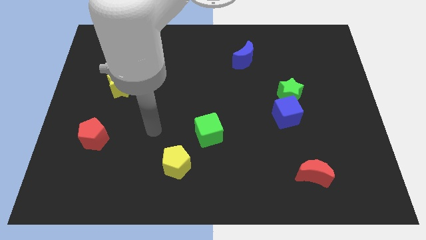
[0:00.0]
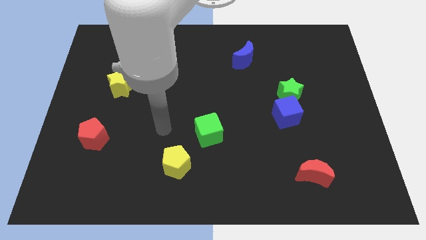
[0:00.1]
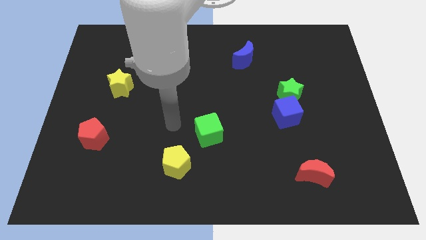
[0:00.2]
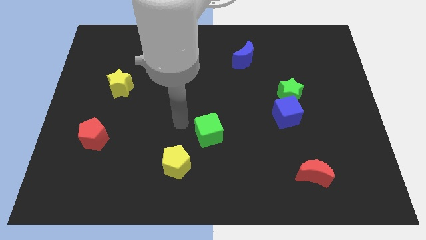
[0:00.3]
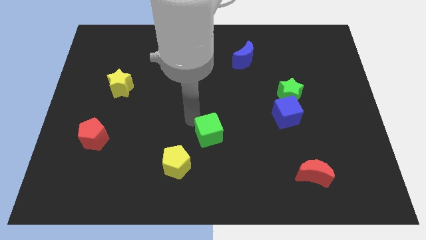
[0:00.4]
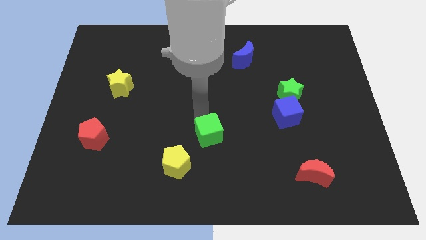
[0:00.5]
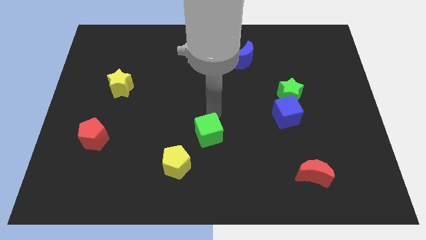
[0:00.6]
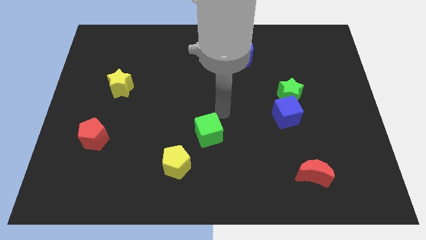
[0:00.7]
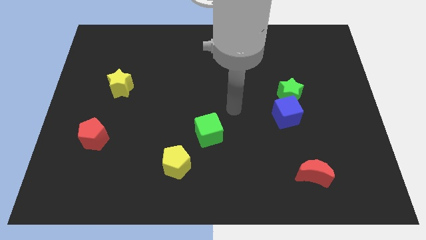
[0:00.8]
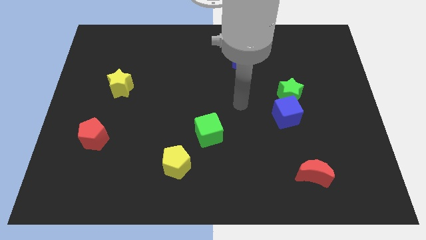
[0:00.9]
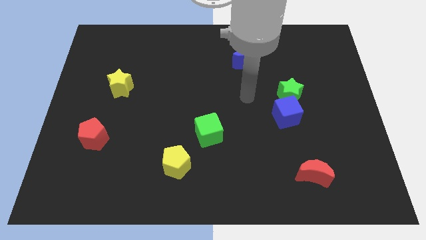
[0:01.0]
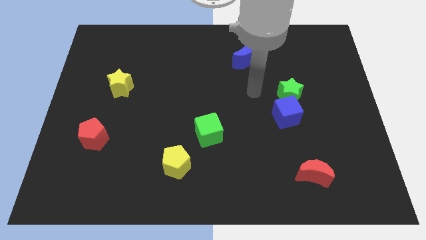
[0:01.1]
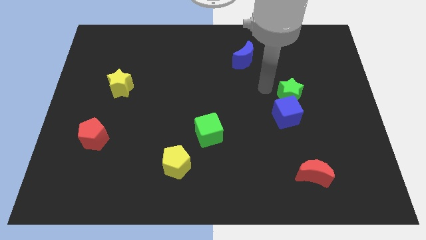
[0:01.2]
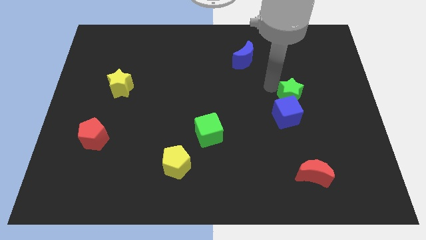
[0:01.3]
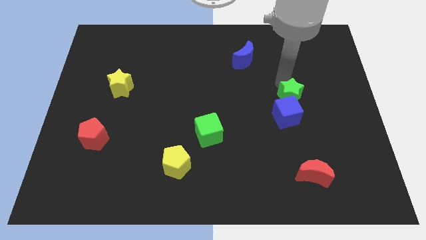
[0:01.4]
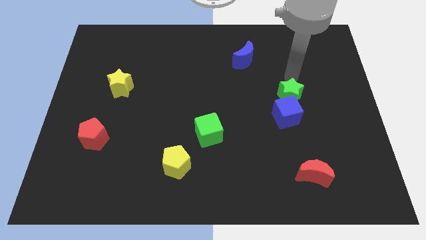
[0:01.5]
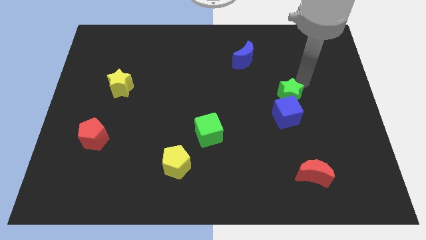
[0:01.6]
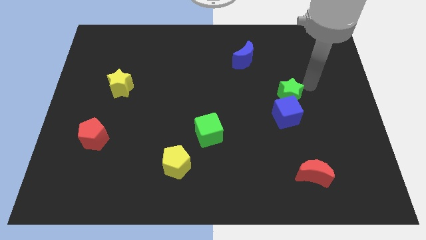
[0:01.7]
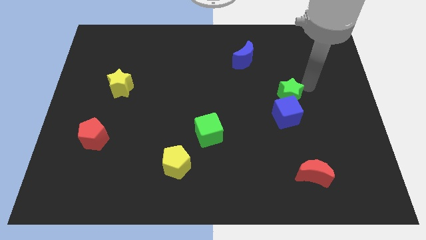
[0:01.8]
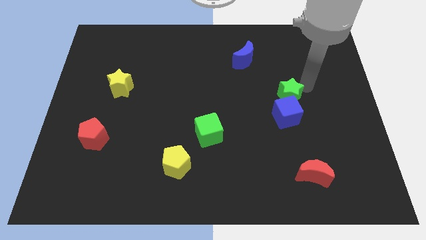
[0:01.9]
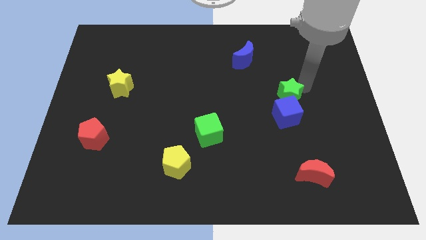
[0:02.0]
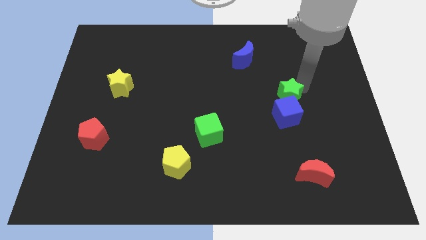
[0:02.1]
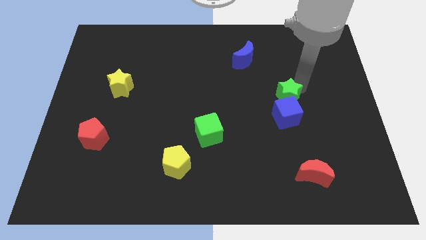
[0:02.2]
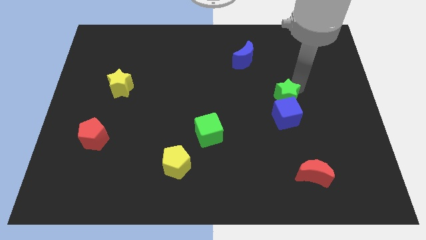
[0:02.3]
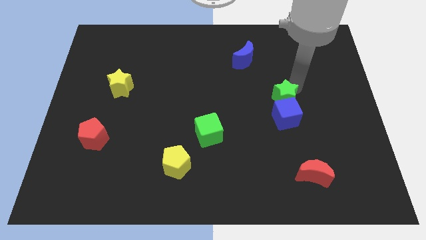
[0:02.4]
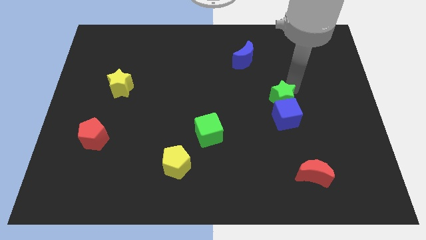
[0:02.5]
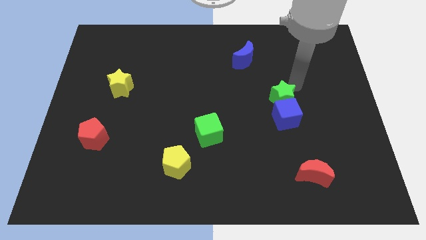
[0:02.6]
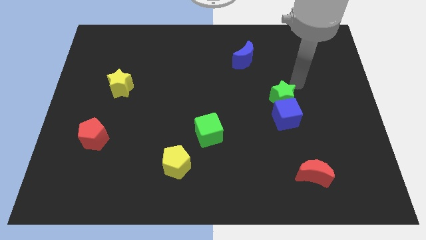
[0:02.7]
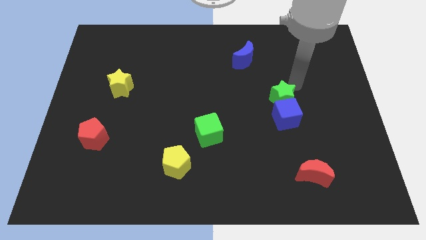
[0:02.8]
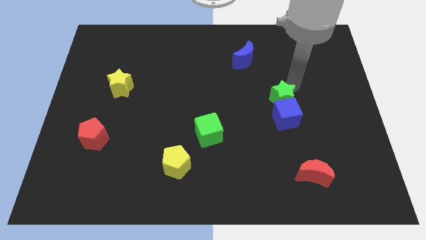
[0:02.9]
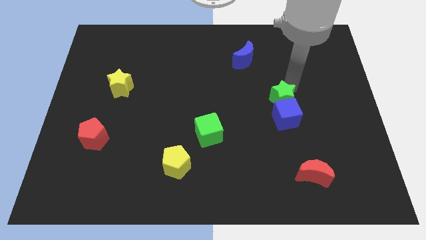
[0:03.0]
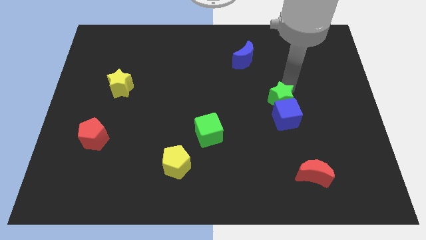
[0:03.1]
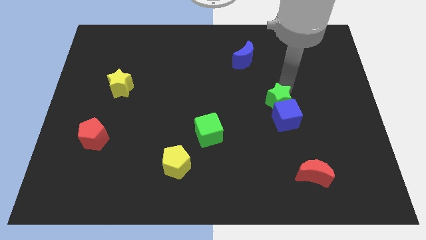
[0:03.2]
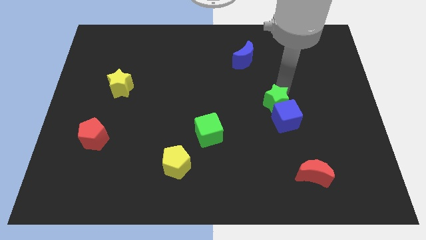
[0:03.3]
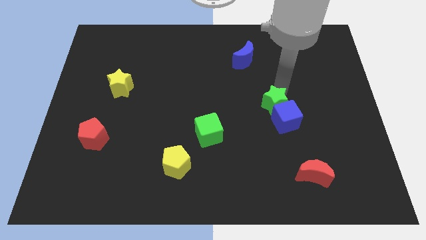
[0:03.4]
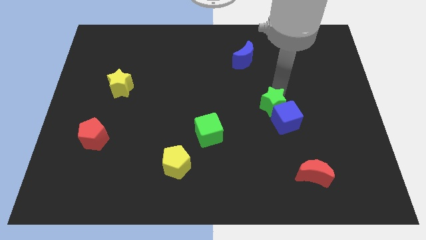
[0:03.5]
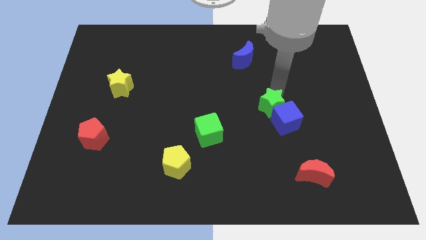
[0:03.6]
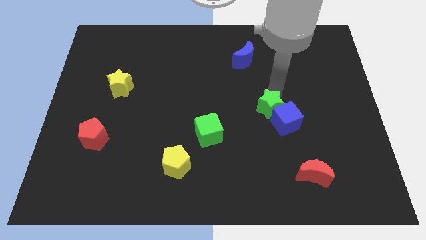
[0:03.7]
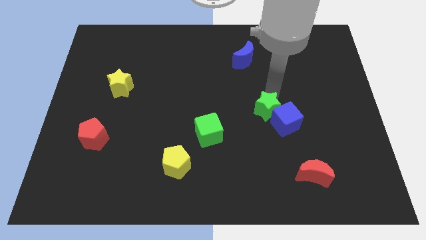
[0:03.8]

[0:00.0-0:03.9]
push the green star downwards and then left a little bit

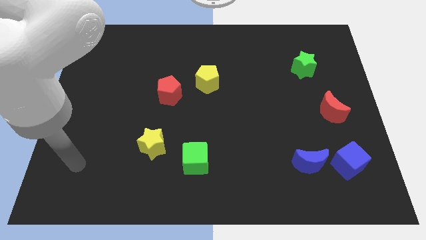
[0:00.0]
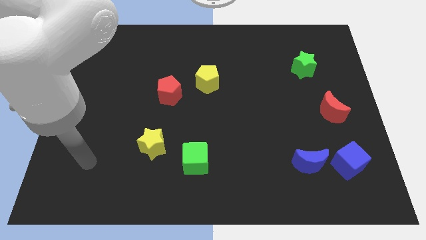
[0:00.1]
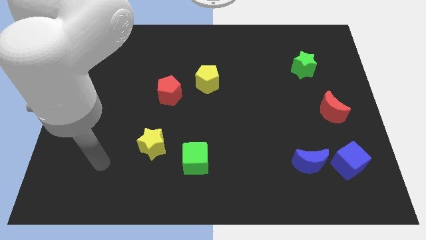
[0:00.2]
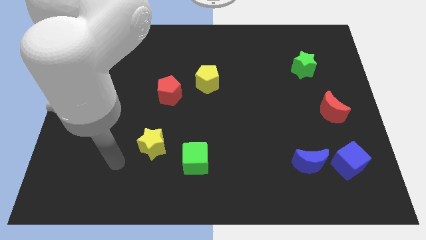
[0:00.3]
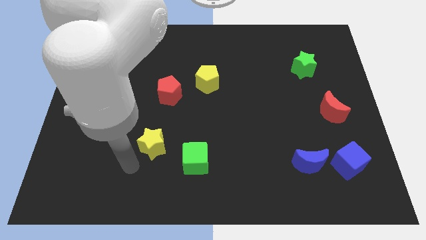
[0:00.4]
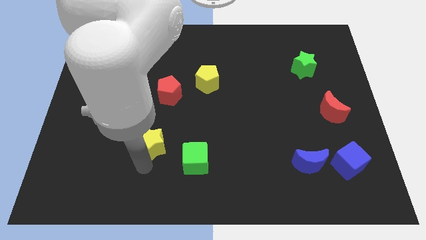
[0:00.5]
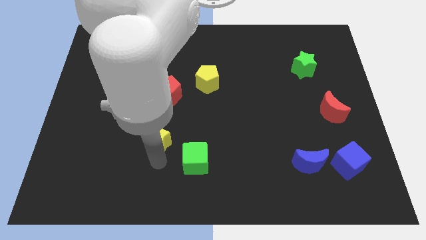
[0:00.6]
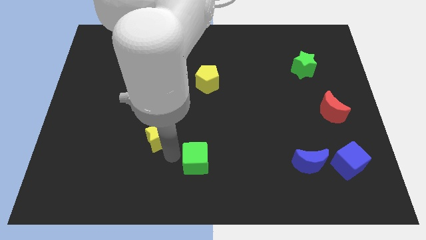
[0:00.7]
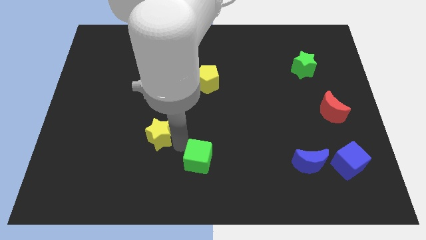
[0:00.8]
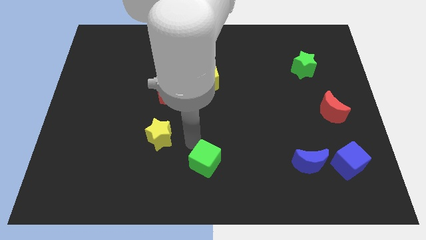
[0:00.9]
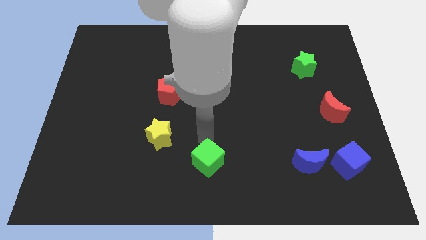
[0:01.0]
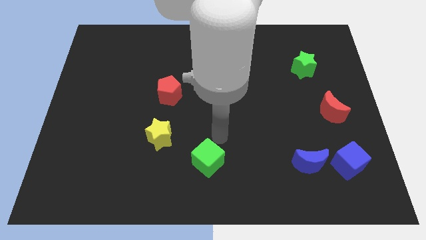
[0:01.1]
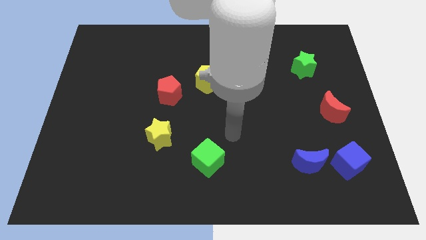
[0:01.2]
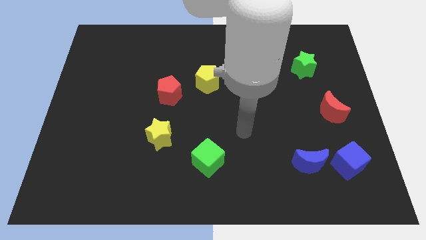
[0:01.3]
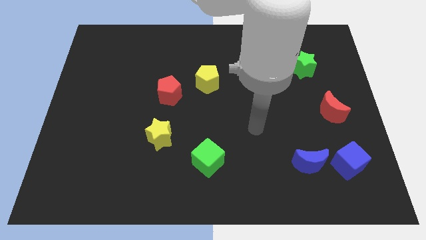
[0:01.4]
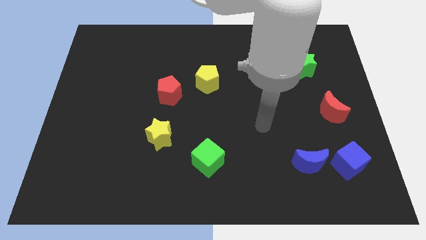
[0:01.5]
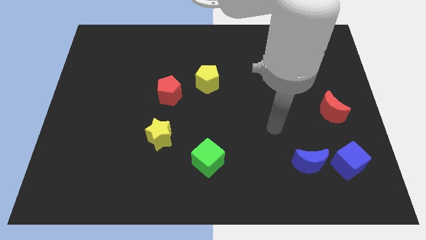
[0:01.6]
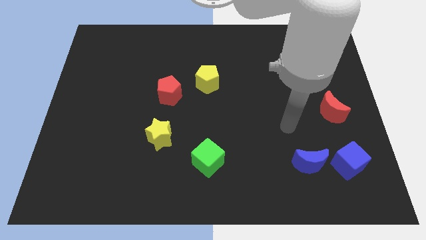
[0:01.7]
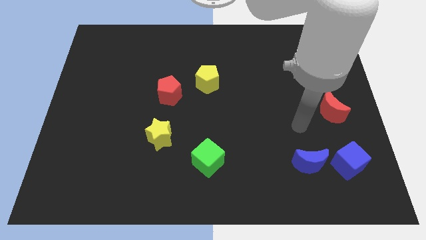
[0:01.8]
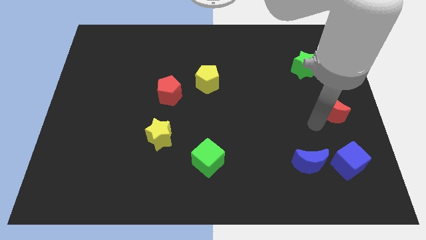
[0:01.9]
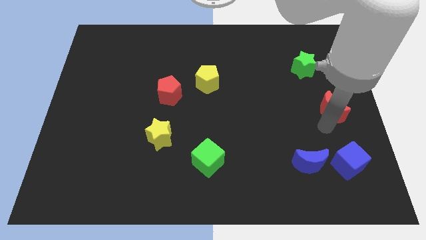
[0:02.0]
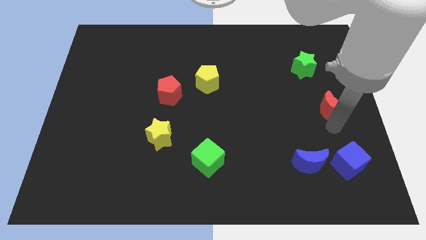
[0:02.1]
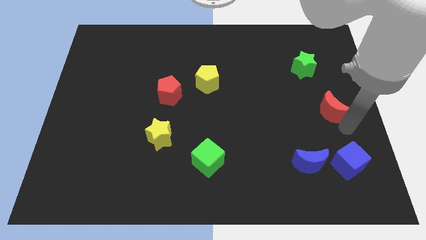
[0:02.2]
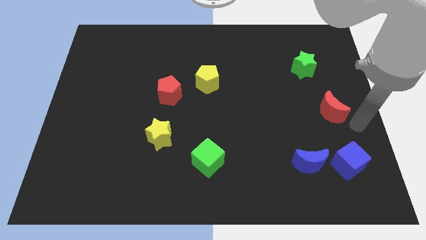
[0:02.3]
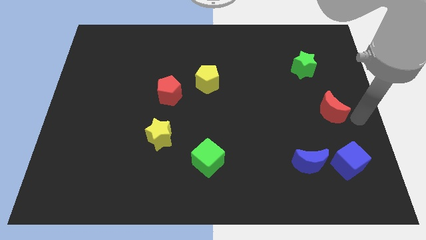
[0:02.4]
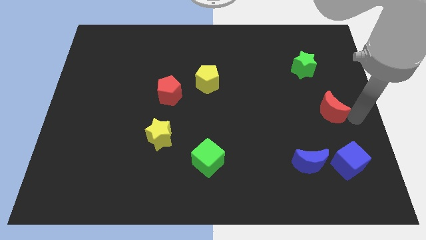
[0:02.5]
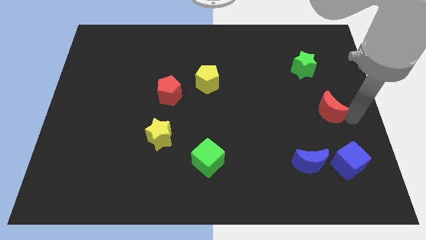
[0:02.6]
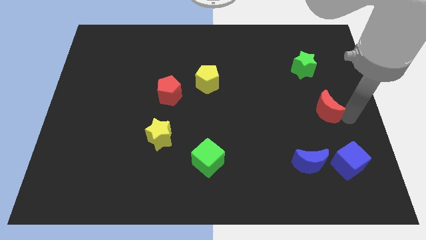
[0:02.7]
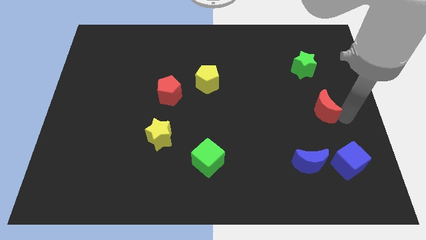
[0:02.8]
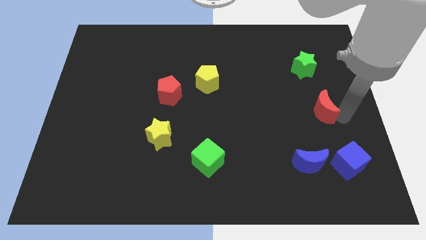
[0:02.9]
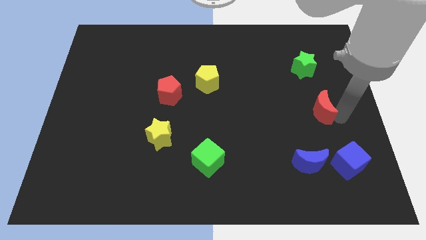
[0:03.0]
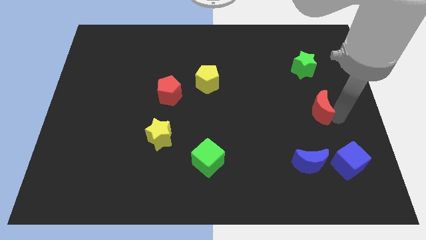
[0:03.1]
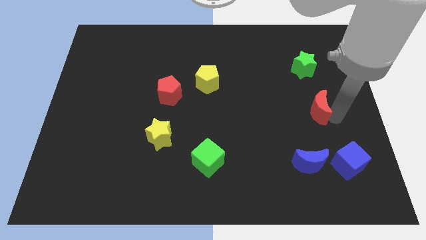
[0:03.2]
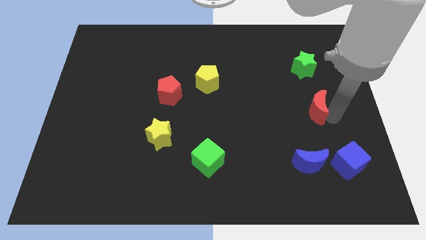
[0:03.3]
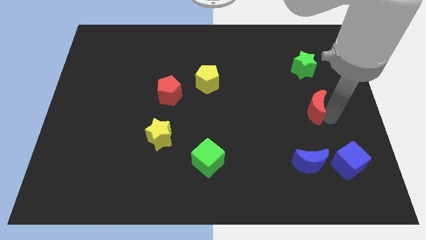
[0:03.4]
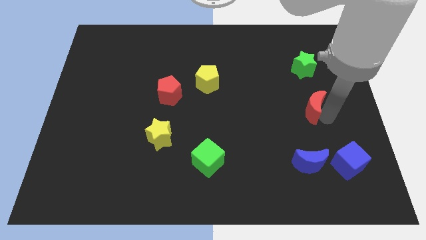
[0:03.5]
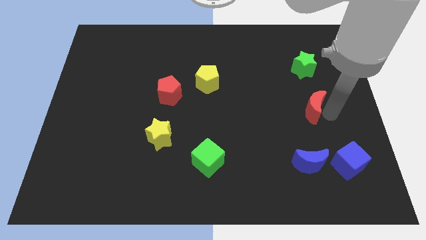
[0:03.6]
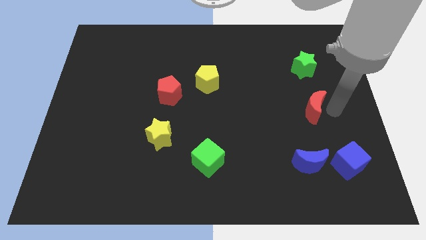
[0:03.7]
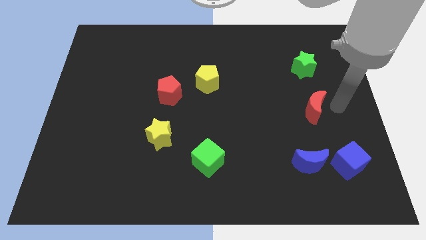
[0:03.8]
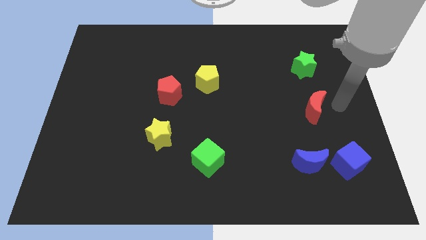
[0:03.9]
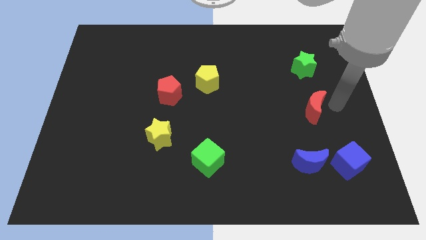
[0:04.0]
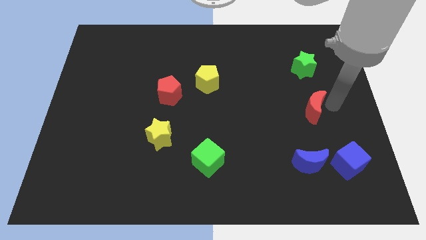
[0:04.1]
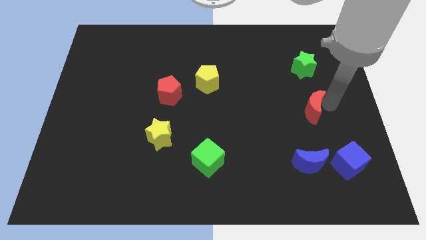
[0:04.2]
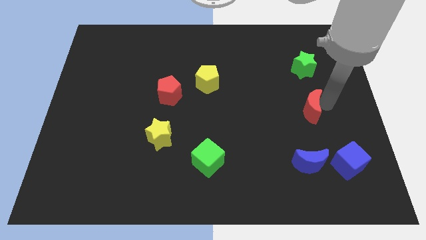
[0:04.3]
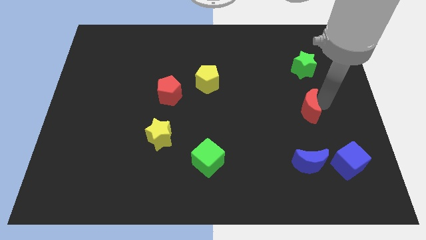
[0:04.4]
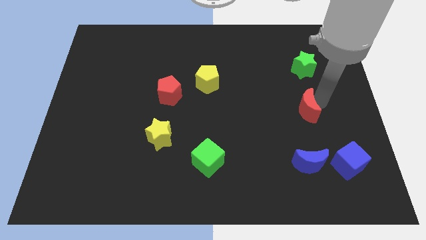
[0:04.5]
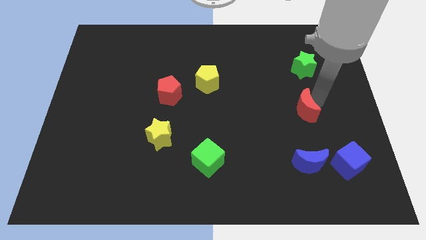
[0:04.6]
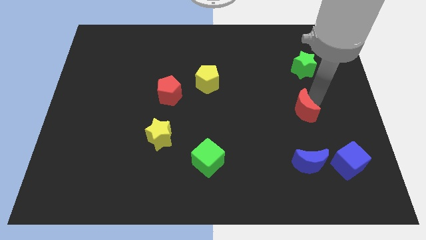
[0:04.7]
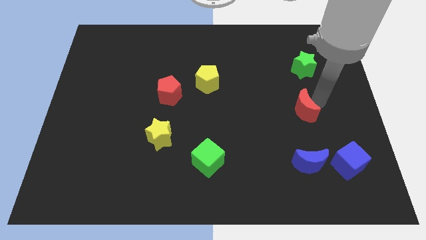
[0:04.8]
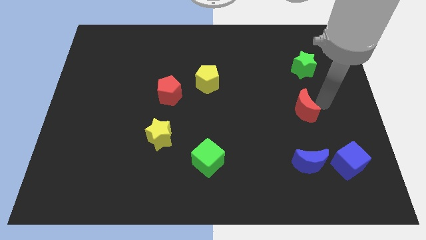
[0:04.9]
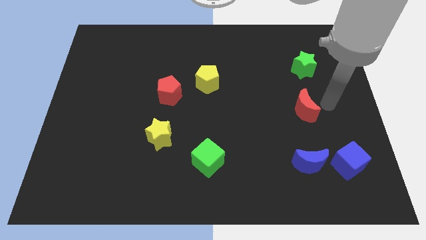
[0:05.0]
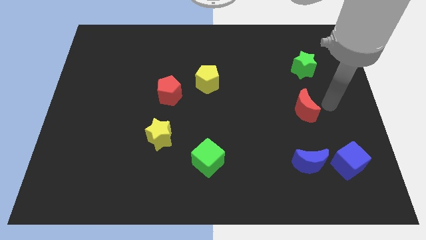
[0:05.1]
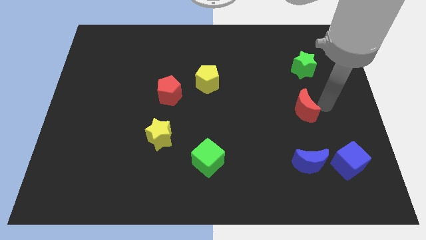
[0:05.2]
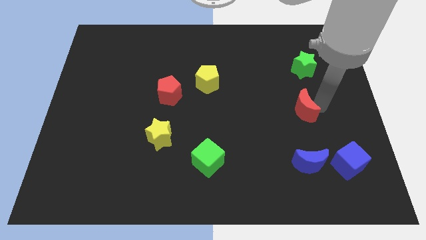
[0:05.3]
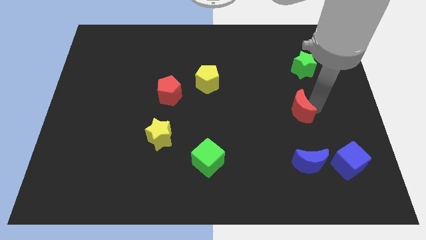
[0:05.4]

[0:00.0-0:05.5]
move the red moon slightly to the left
